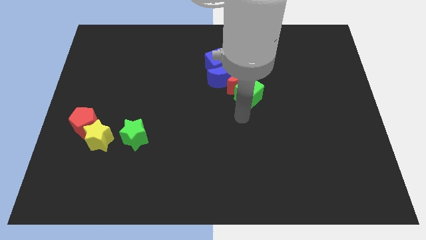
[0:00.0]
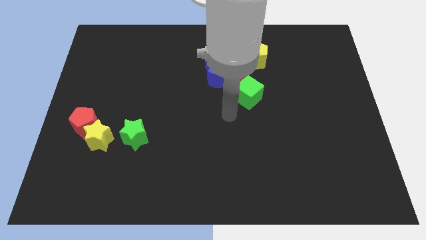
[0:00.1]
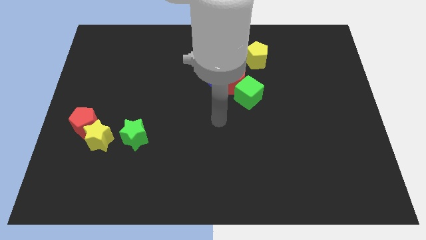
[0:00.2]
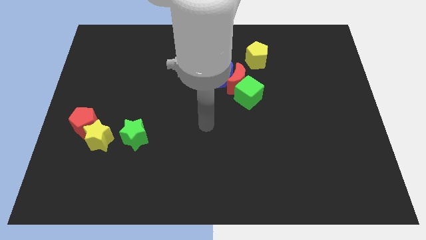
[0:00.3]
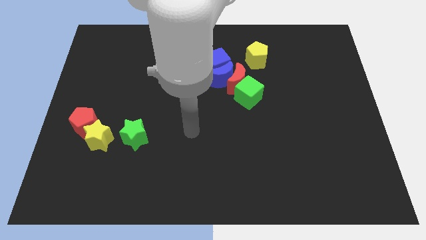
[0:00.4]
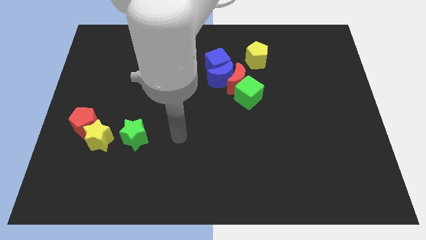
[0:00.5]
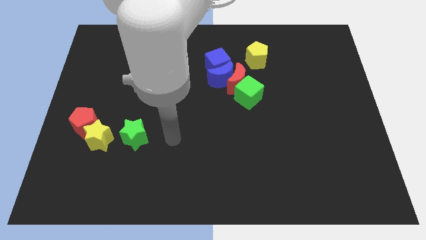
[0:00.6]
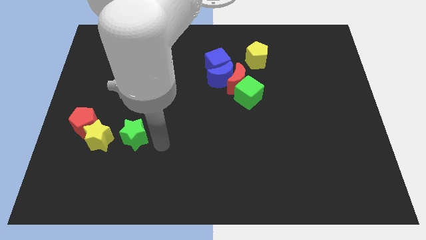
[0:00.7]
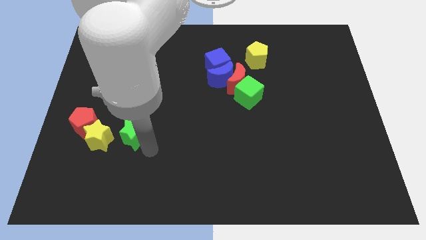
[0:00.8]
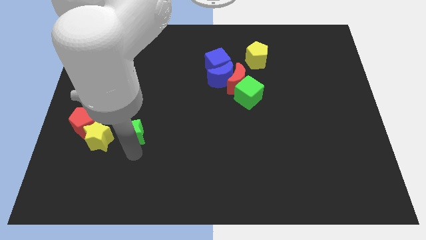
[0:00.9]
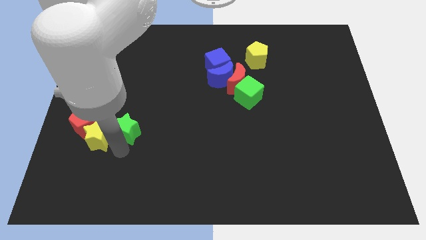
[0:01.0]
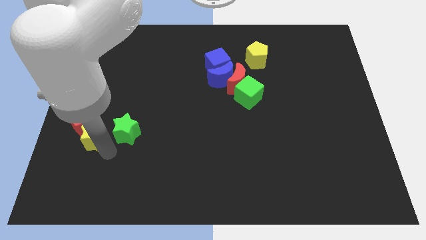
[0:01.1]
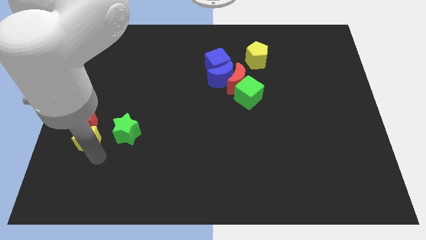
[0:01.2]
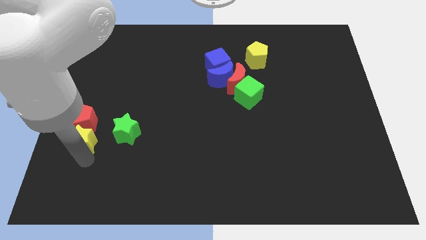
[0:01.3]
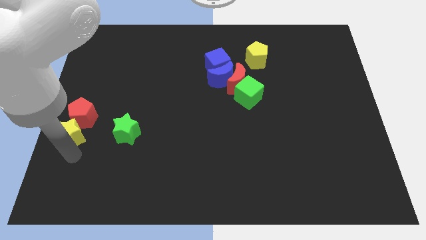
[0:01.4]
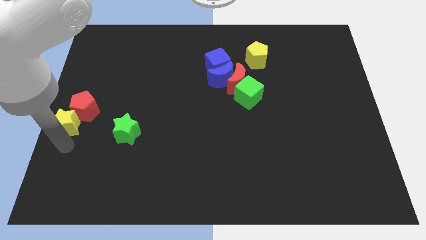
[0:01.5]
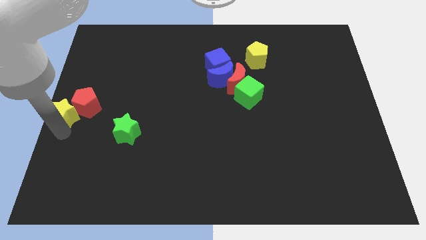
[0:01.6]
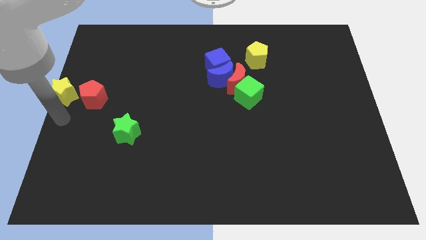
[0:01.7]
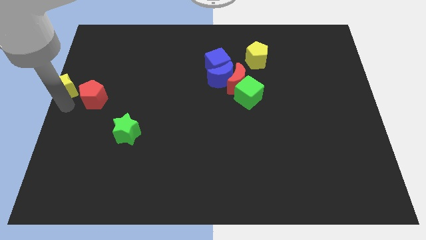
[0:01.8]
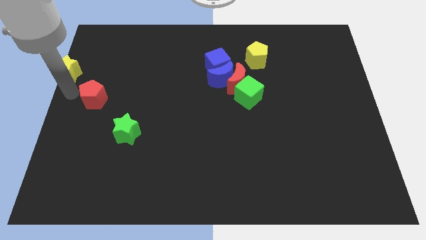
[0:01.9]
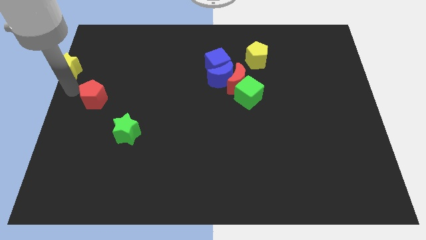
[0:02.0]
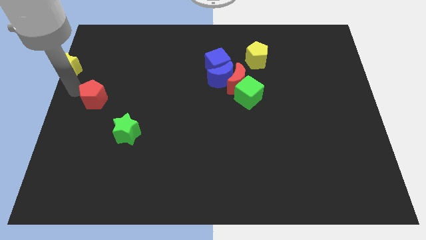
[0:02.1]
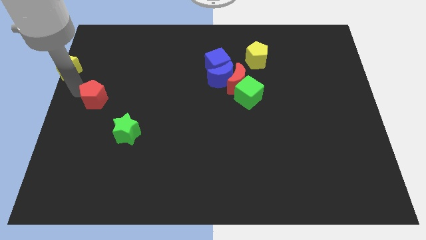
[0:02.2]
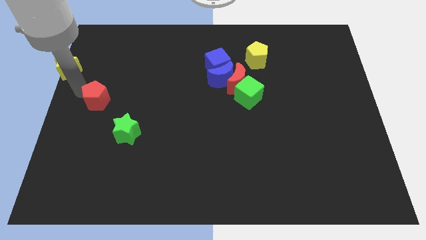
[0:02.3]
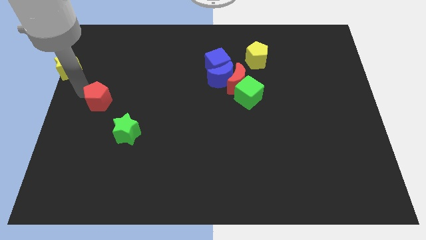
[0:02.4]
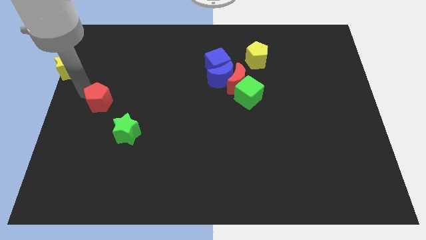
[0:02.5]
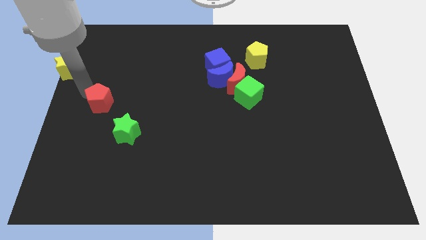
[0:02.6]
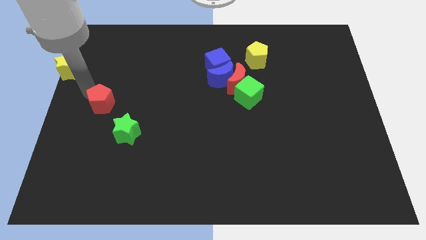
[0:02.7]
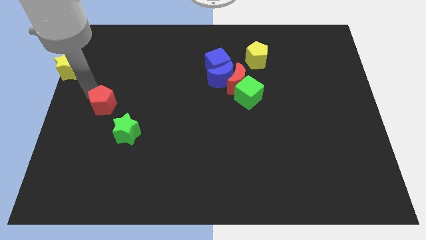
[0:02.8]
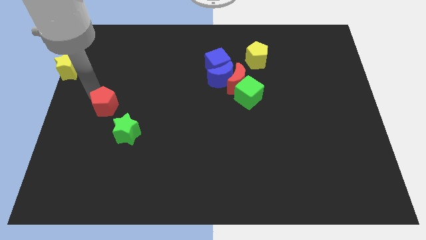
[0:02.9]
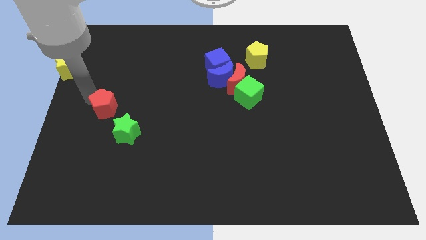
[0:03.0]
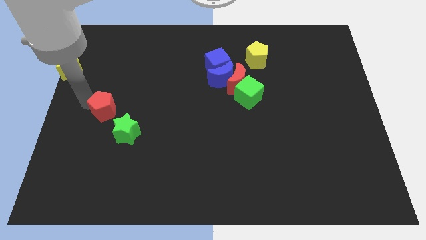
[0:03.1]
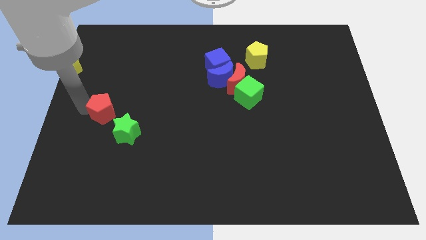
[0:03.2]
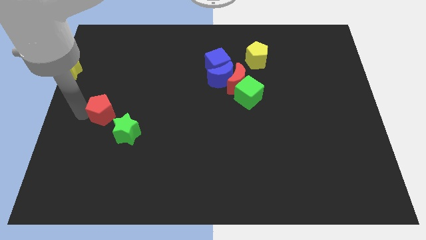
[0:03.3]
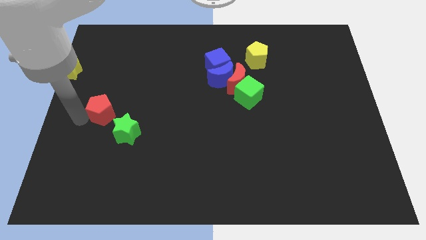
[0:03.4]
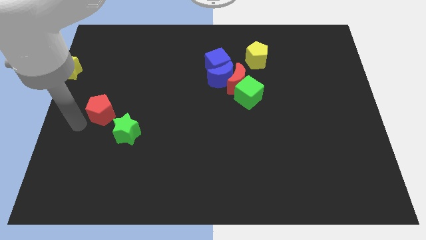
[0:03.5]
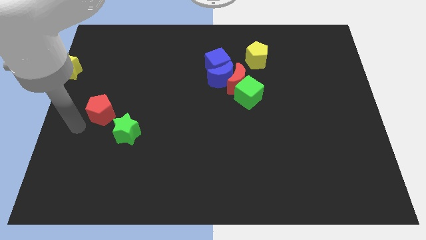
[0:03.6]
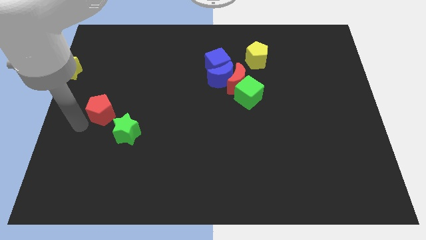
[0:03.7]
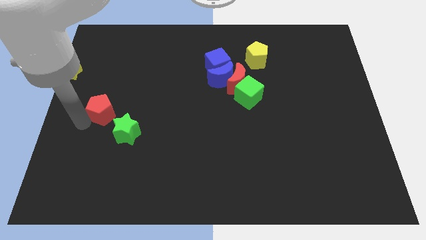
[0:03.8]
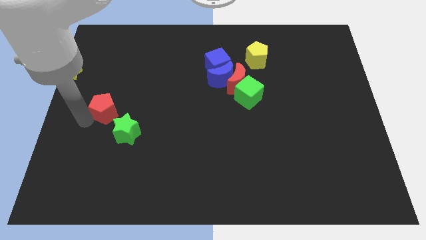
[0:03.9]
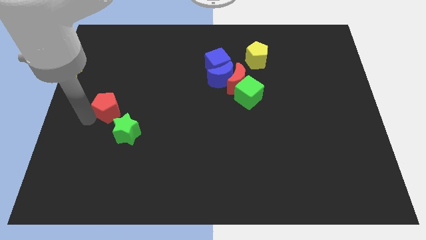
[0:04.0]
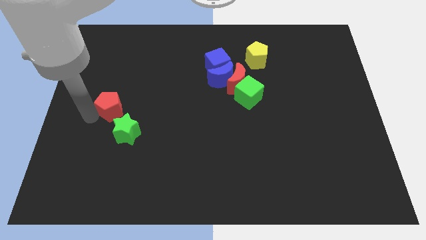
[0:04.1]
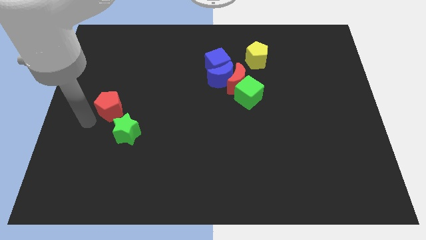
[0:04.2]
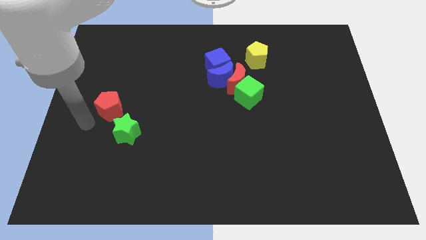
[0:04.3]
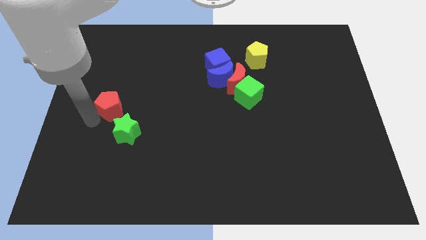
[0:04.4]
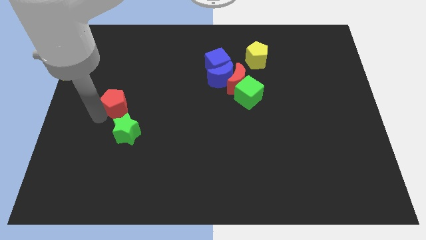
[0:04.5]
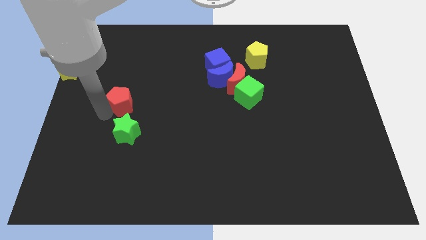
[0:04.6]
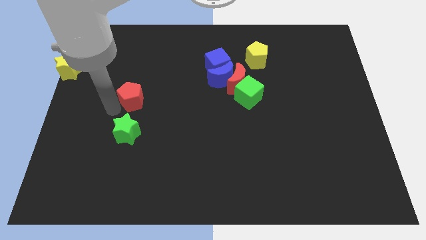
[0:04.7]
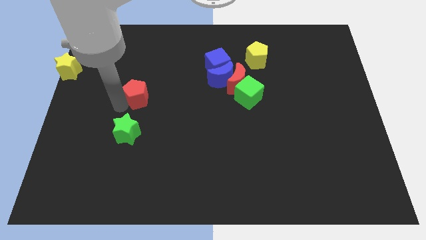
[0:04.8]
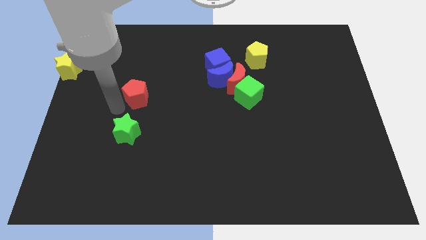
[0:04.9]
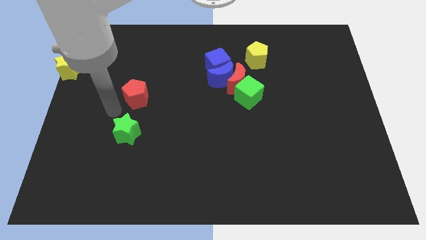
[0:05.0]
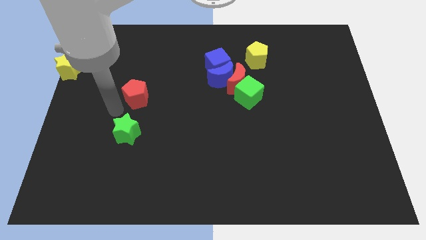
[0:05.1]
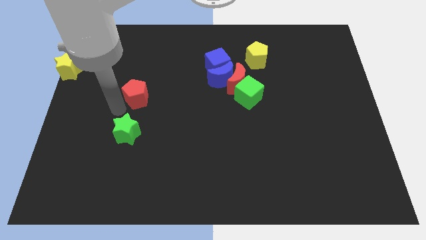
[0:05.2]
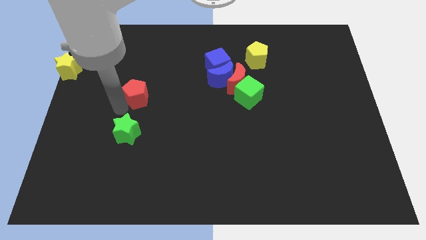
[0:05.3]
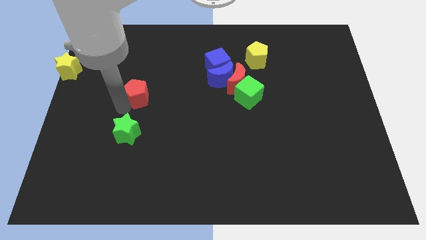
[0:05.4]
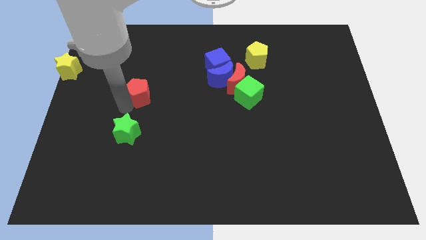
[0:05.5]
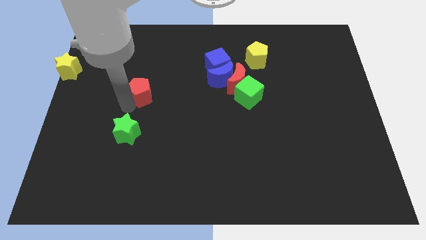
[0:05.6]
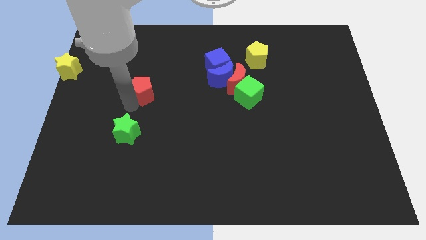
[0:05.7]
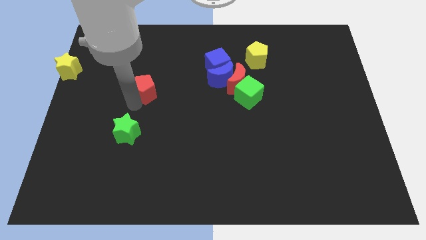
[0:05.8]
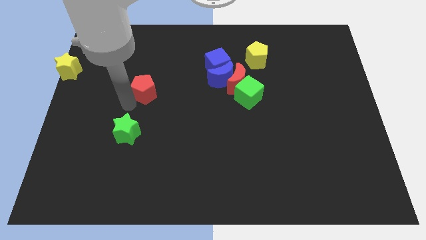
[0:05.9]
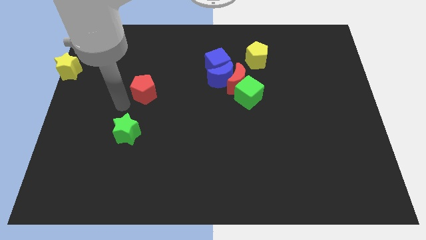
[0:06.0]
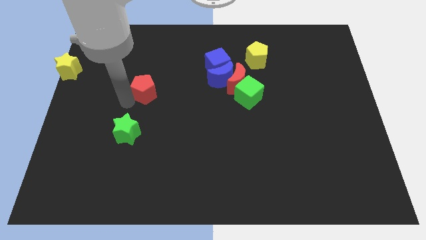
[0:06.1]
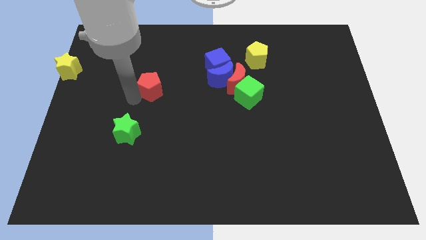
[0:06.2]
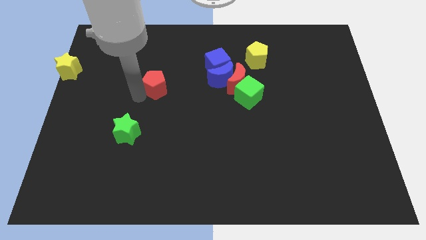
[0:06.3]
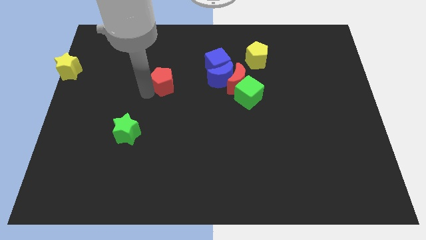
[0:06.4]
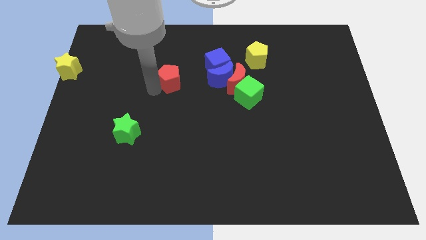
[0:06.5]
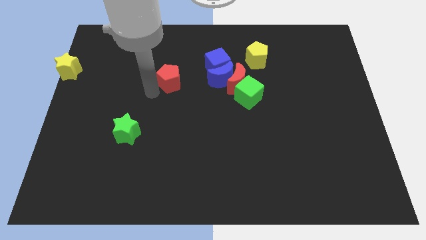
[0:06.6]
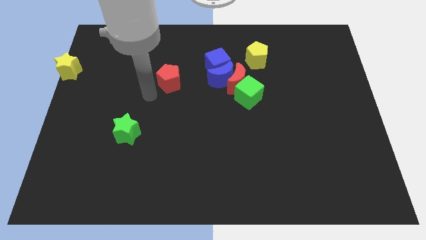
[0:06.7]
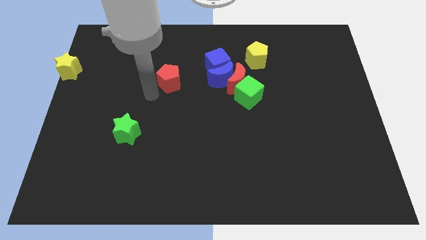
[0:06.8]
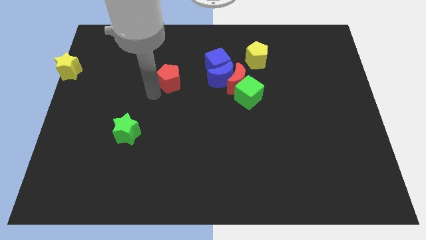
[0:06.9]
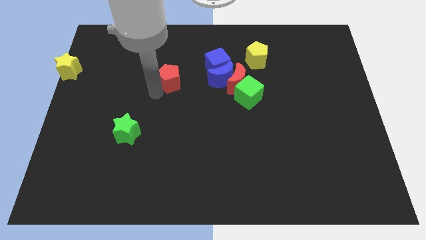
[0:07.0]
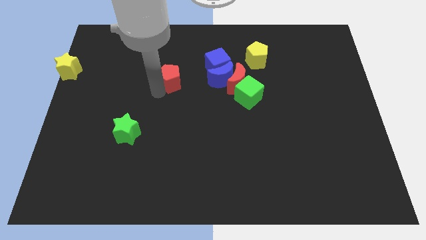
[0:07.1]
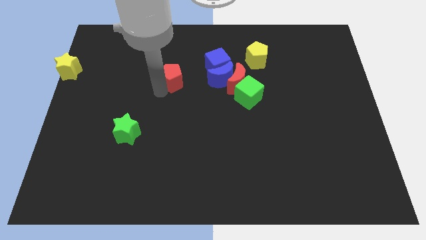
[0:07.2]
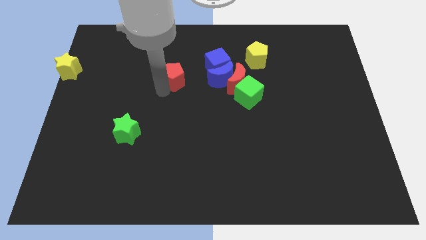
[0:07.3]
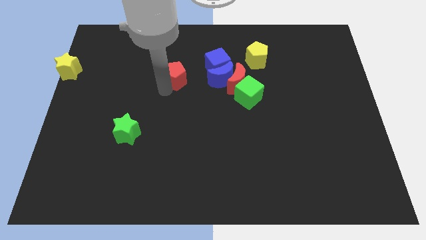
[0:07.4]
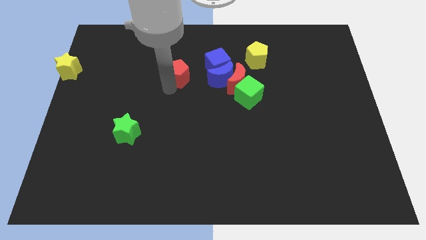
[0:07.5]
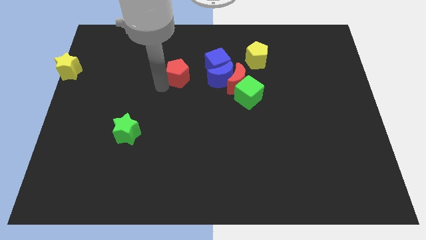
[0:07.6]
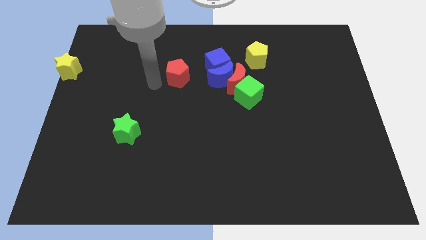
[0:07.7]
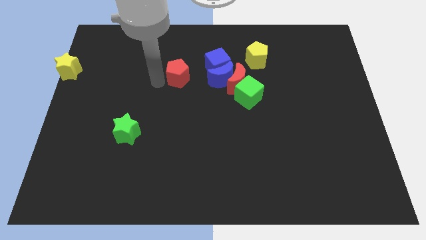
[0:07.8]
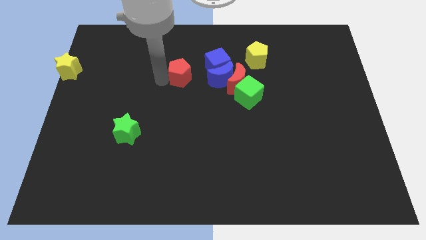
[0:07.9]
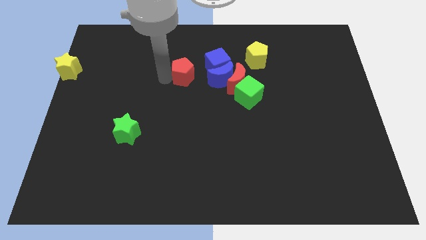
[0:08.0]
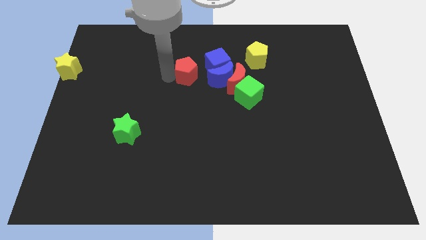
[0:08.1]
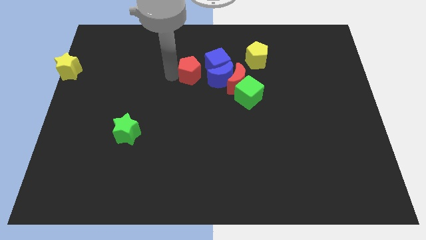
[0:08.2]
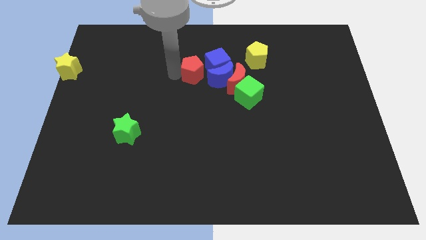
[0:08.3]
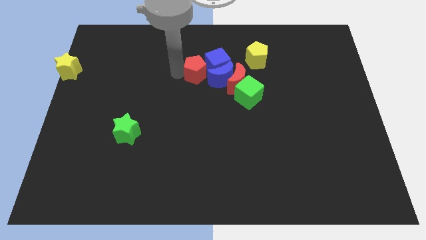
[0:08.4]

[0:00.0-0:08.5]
move the red pentagon next to the blue cube
